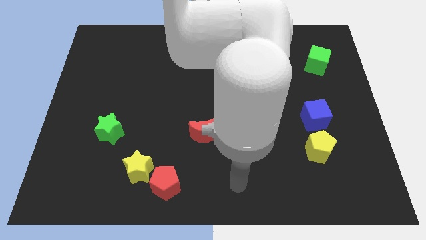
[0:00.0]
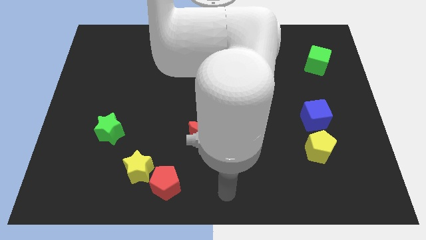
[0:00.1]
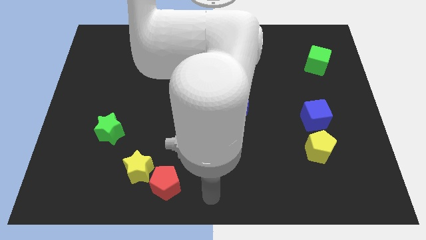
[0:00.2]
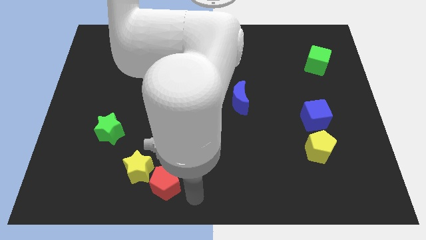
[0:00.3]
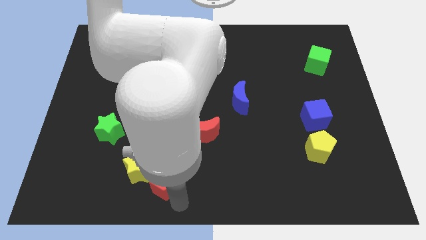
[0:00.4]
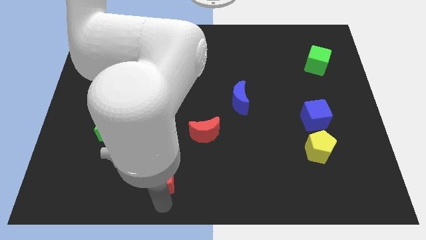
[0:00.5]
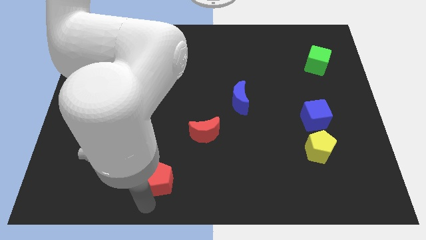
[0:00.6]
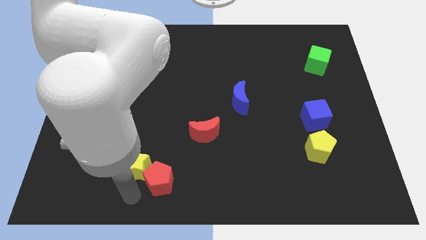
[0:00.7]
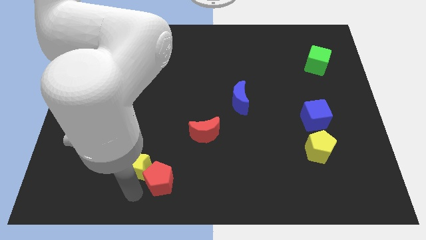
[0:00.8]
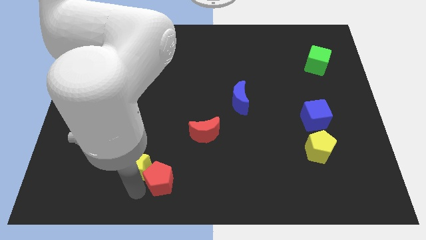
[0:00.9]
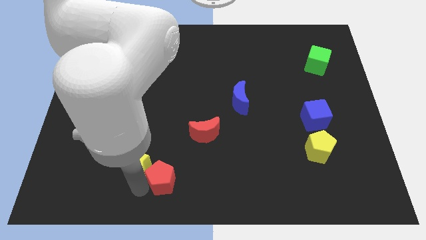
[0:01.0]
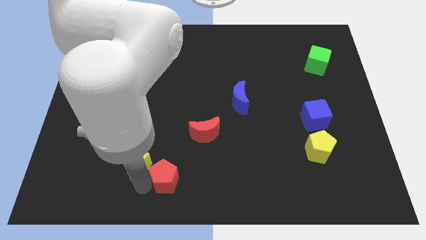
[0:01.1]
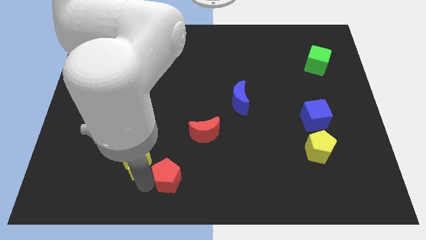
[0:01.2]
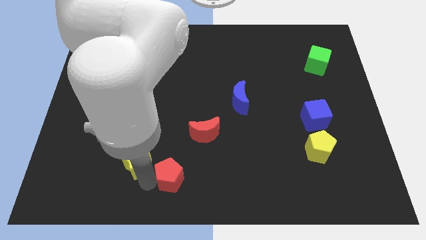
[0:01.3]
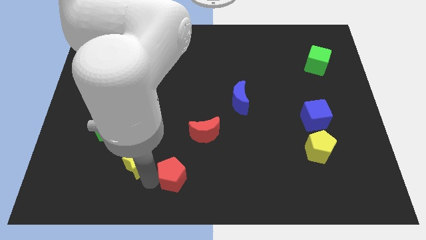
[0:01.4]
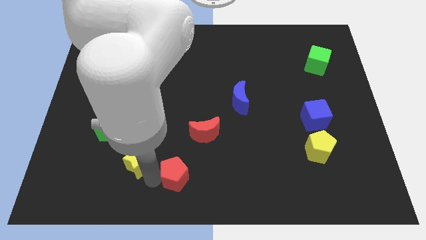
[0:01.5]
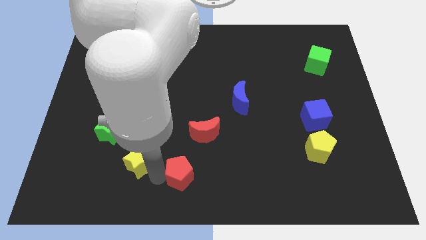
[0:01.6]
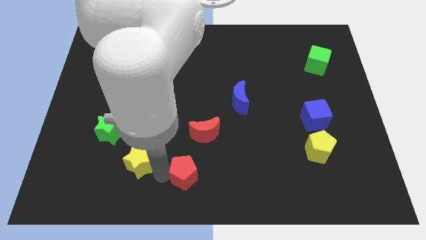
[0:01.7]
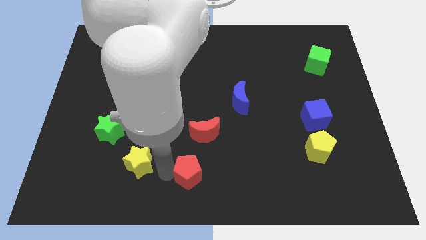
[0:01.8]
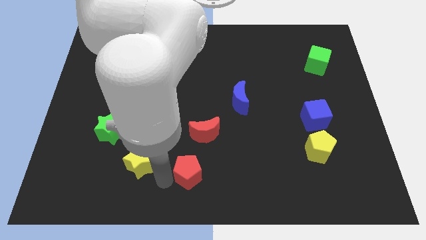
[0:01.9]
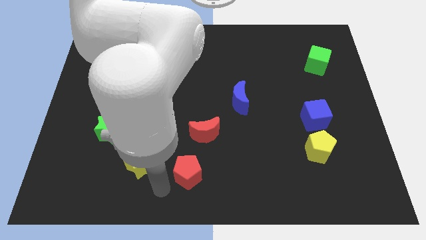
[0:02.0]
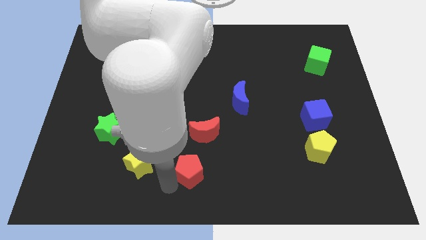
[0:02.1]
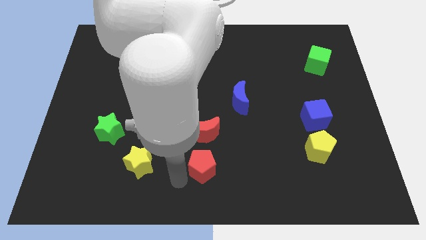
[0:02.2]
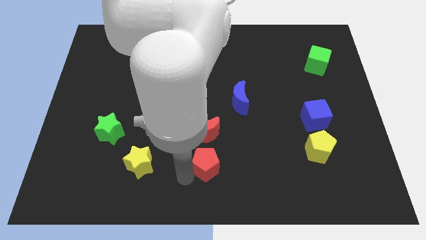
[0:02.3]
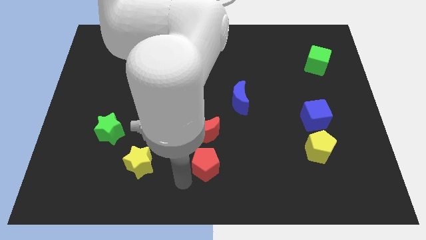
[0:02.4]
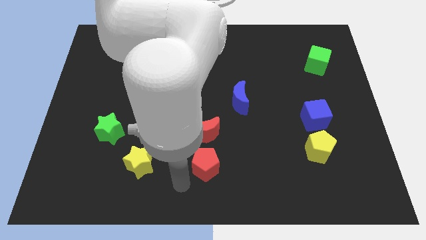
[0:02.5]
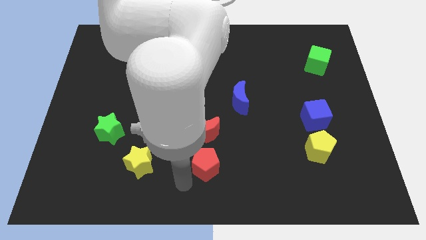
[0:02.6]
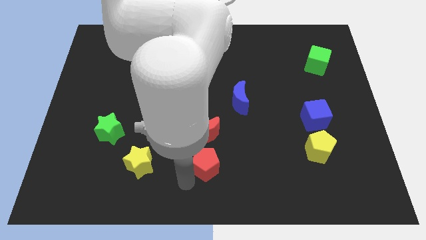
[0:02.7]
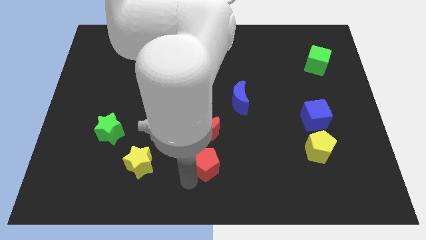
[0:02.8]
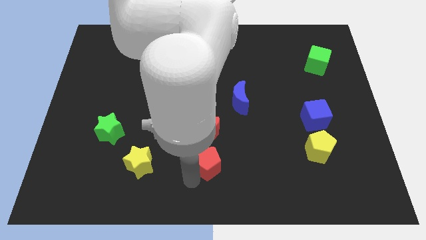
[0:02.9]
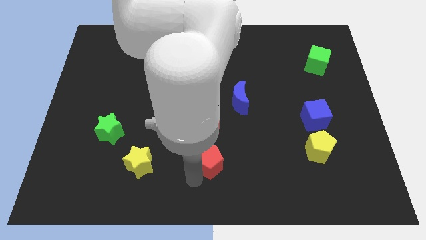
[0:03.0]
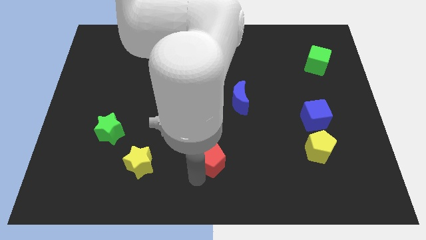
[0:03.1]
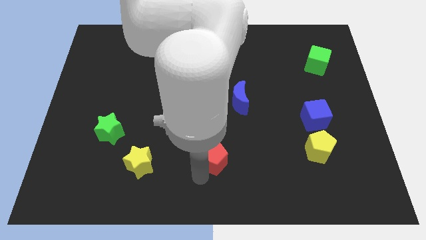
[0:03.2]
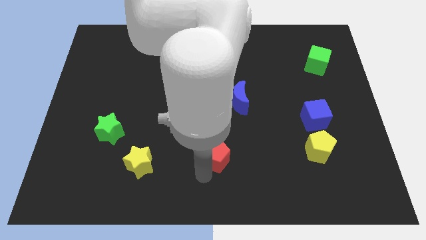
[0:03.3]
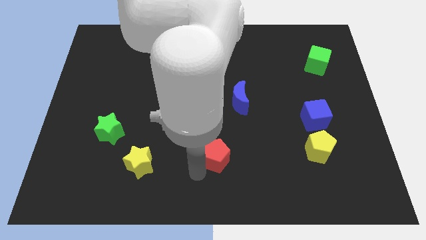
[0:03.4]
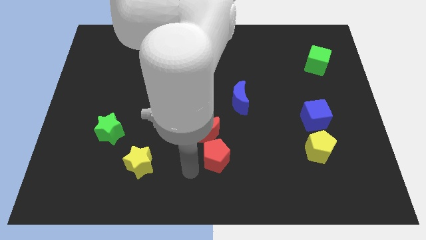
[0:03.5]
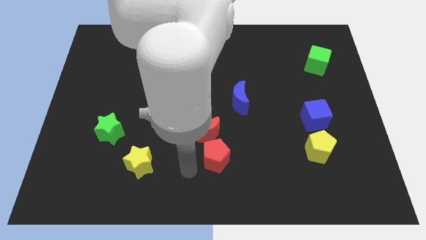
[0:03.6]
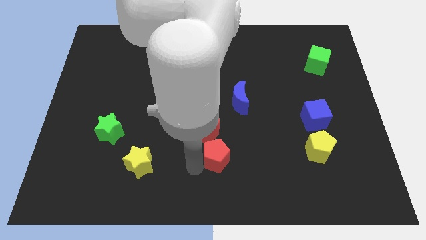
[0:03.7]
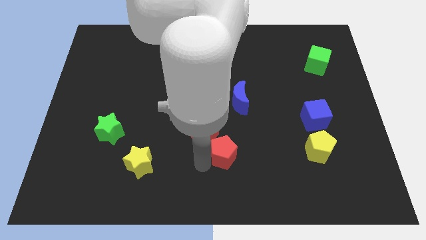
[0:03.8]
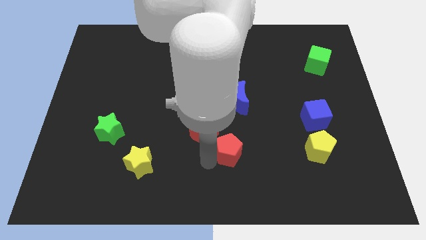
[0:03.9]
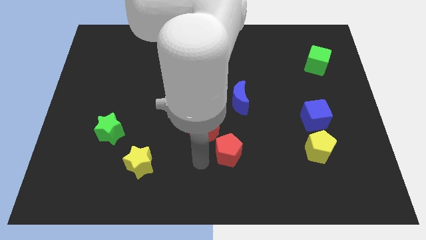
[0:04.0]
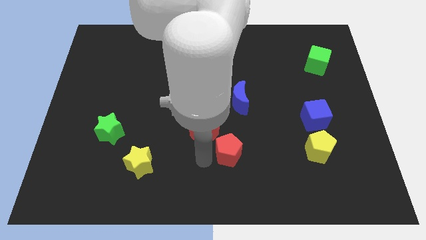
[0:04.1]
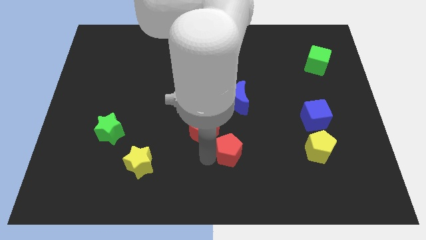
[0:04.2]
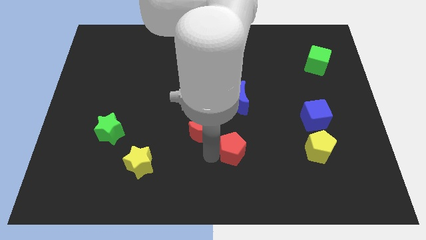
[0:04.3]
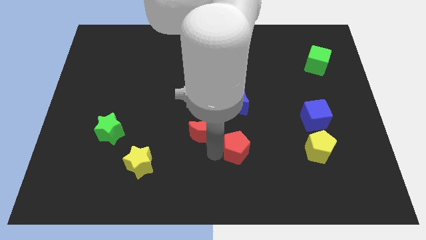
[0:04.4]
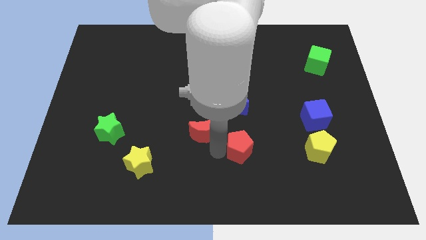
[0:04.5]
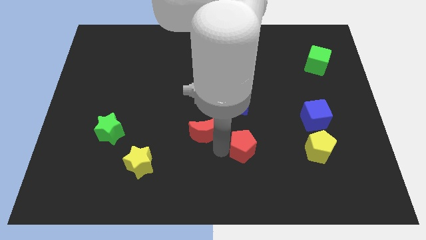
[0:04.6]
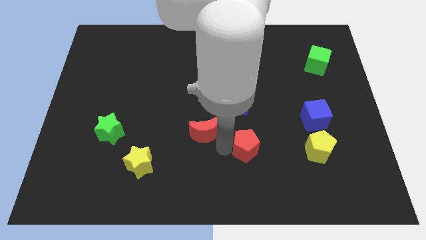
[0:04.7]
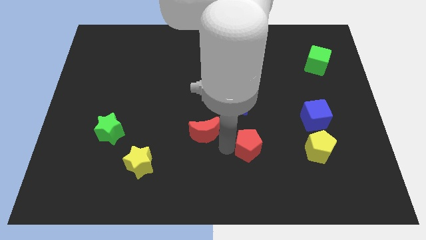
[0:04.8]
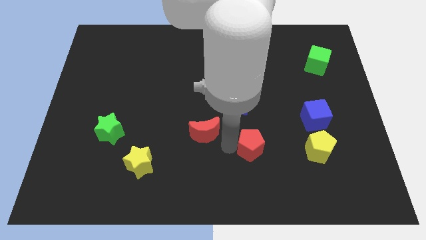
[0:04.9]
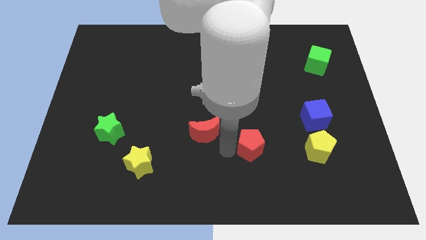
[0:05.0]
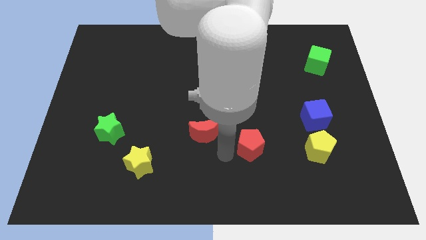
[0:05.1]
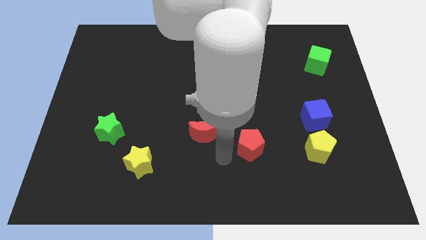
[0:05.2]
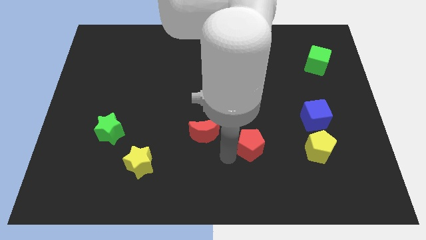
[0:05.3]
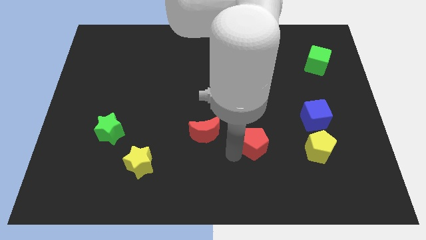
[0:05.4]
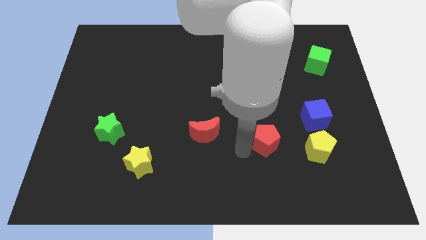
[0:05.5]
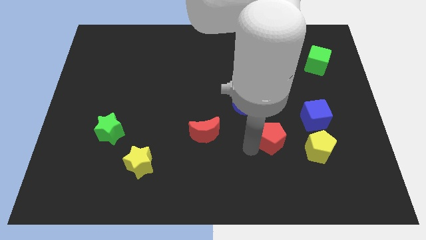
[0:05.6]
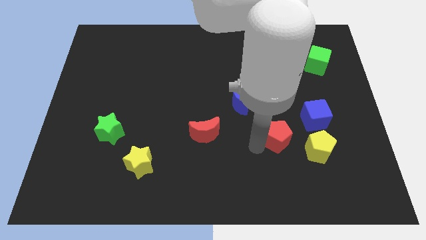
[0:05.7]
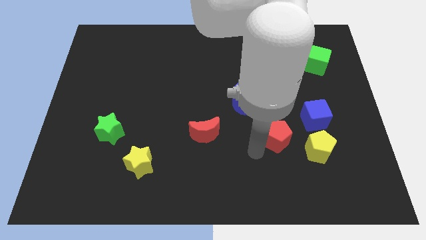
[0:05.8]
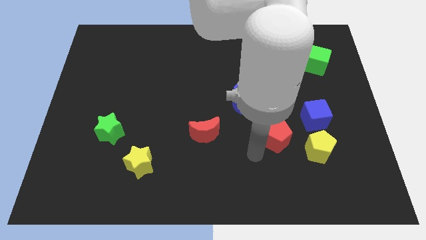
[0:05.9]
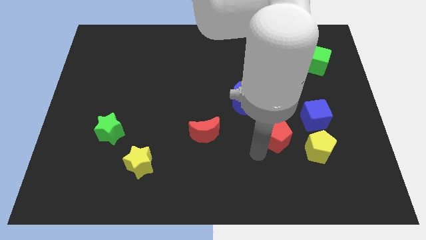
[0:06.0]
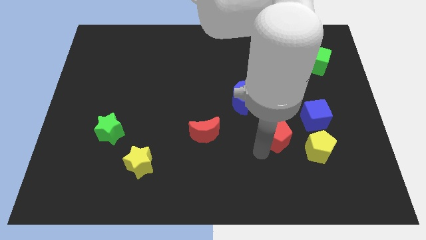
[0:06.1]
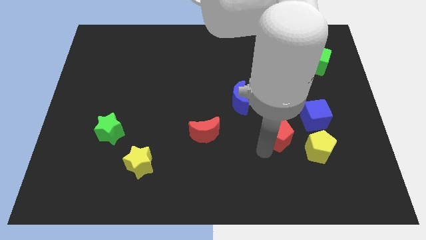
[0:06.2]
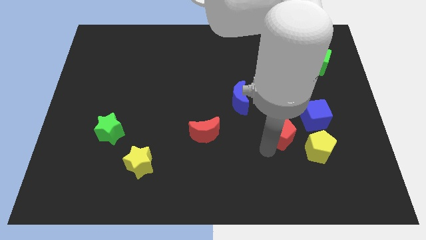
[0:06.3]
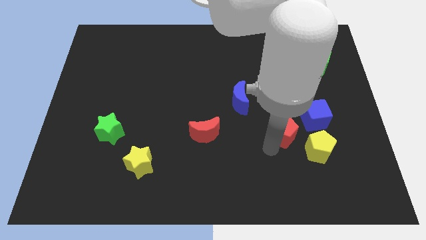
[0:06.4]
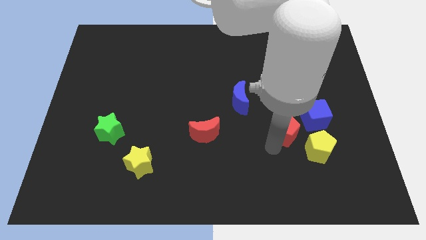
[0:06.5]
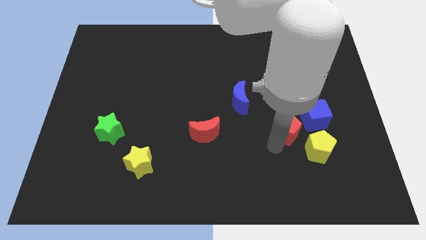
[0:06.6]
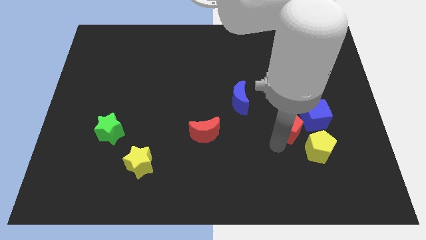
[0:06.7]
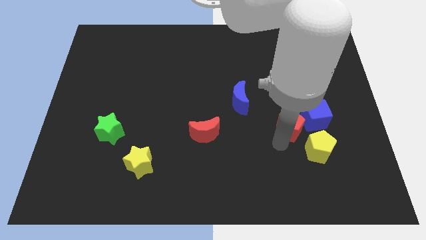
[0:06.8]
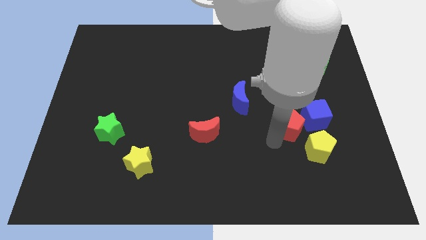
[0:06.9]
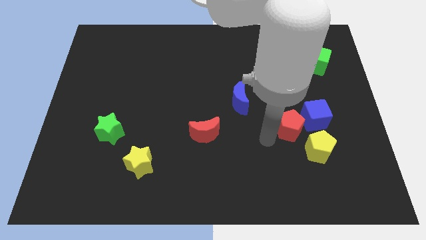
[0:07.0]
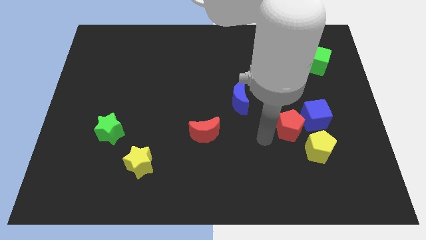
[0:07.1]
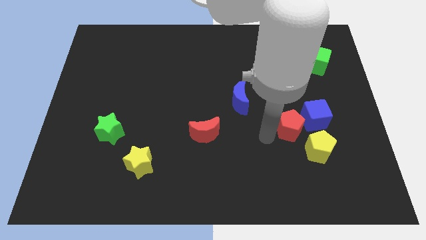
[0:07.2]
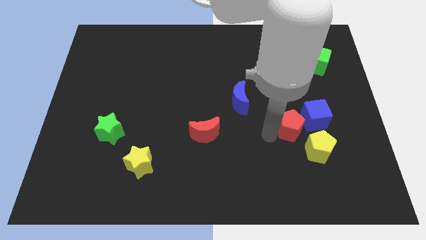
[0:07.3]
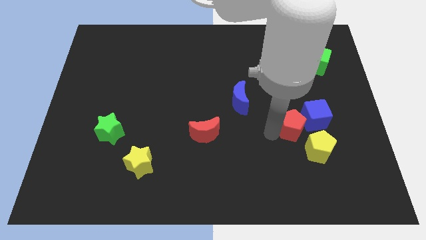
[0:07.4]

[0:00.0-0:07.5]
move the red pentagon next to the blue cube
